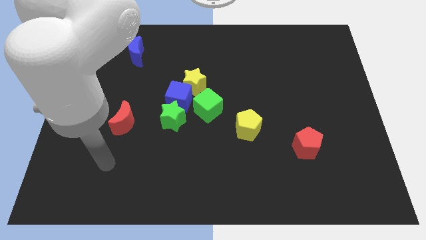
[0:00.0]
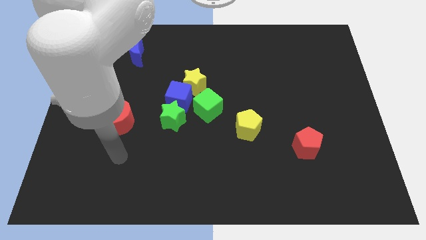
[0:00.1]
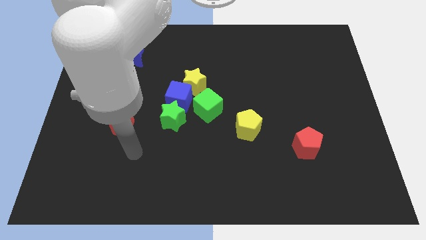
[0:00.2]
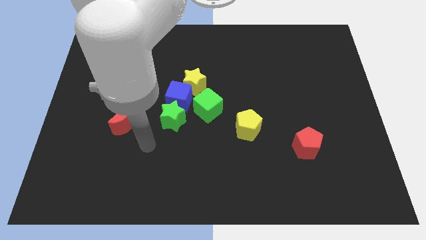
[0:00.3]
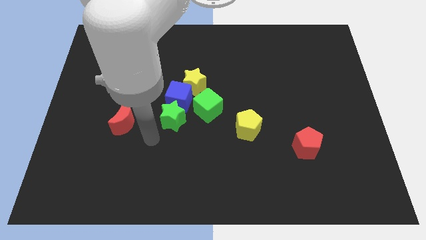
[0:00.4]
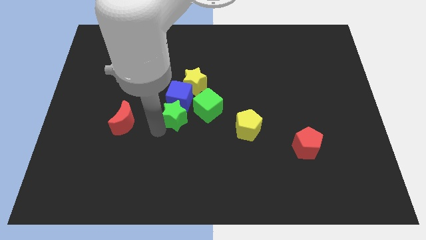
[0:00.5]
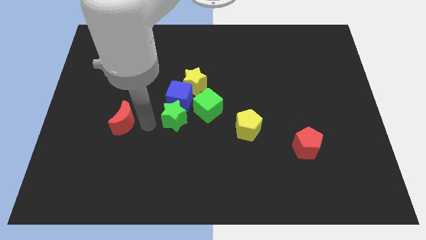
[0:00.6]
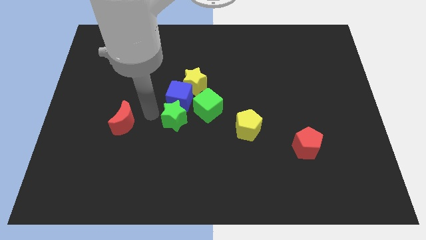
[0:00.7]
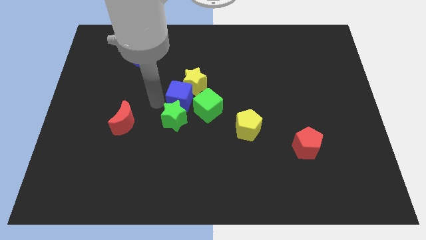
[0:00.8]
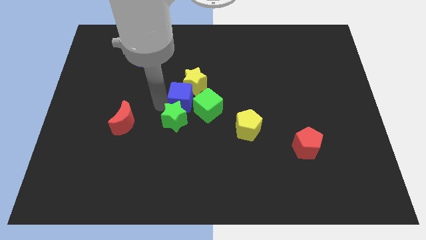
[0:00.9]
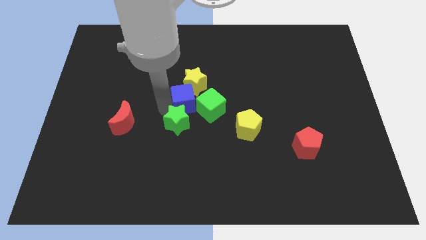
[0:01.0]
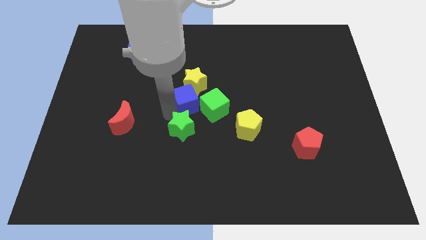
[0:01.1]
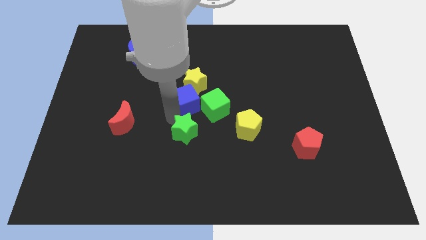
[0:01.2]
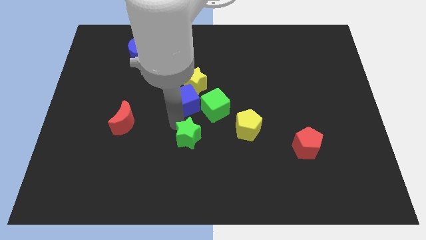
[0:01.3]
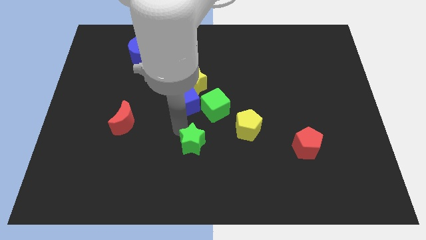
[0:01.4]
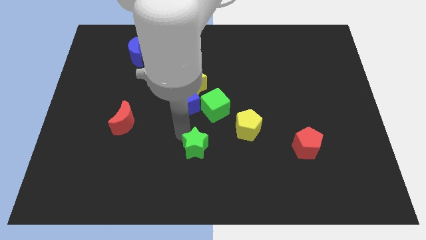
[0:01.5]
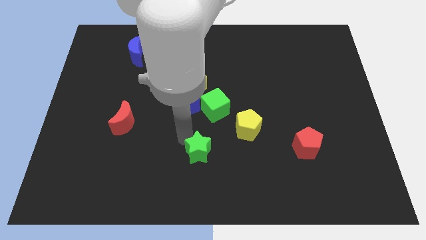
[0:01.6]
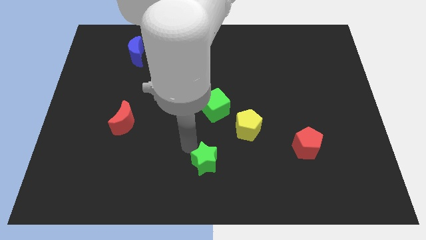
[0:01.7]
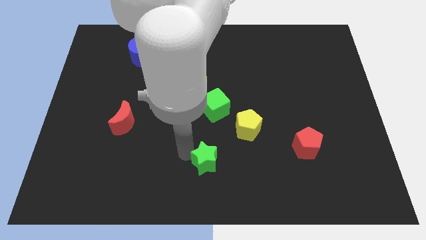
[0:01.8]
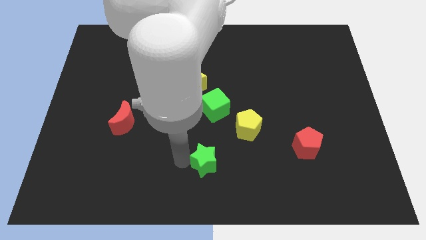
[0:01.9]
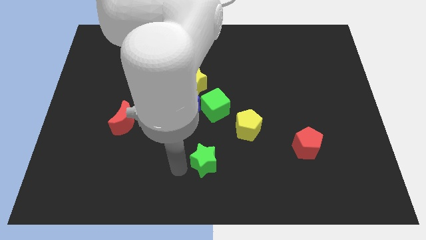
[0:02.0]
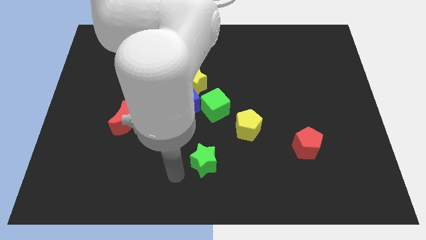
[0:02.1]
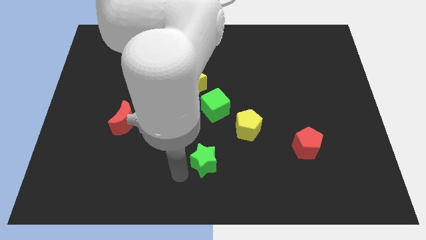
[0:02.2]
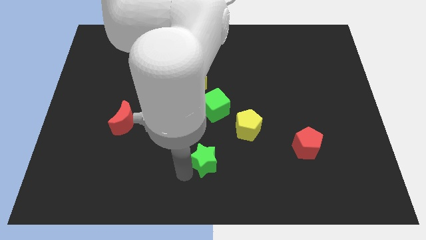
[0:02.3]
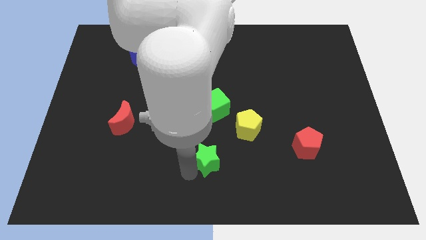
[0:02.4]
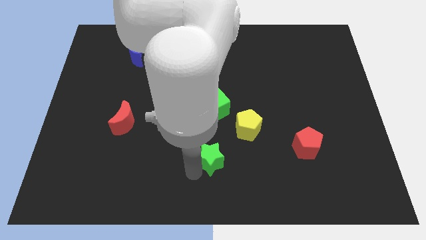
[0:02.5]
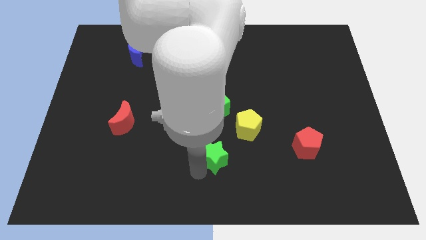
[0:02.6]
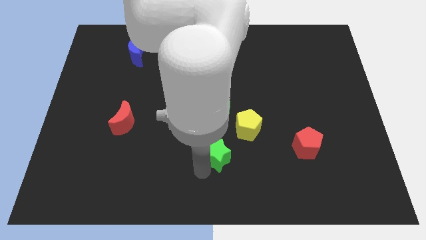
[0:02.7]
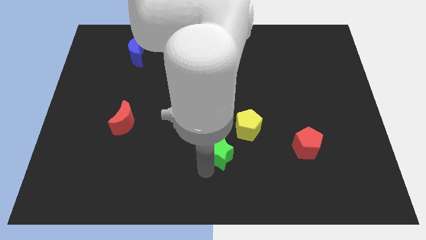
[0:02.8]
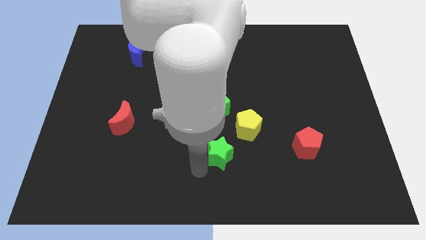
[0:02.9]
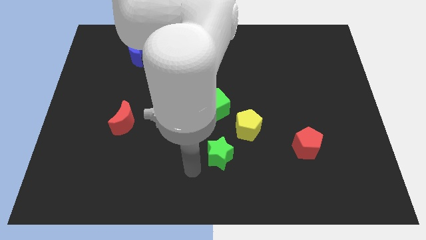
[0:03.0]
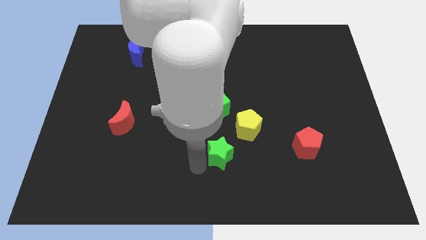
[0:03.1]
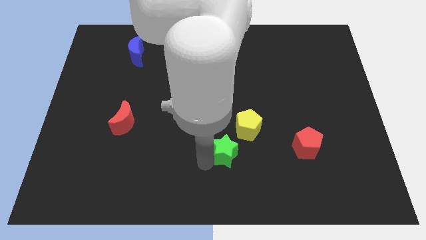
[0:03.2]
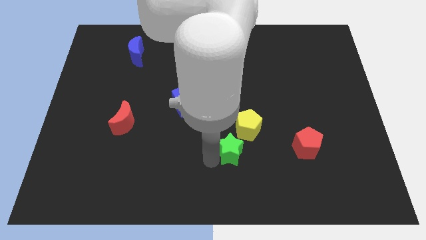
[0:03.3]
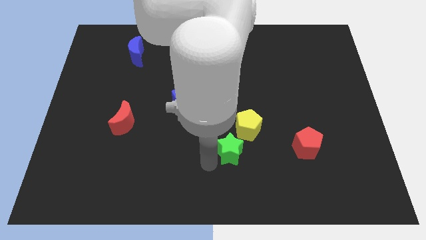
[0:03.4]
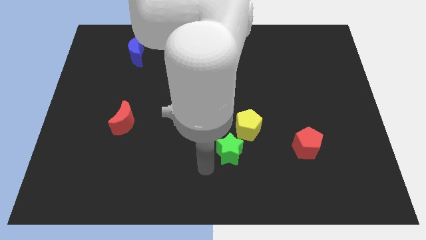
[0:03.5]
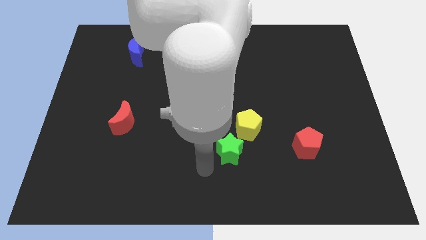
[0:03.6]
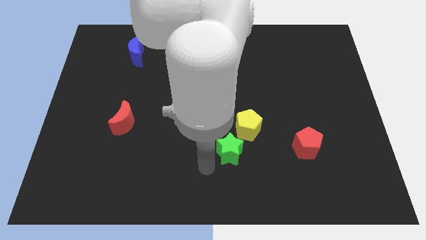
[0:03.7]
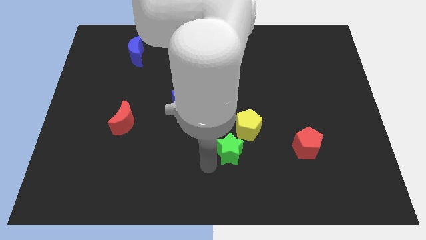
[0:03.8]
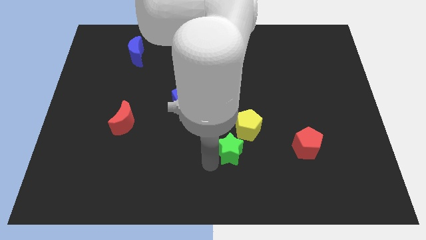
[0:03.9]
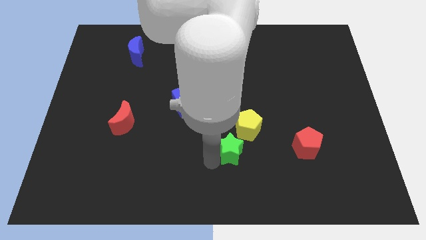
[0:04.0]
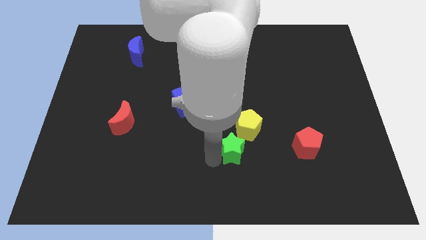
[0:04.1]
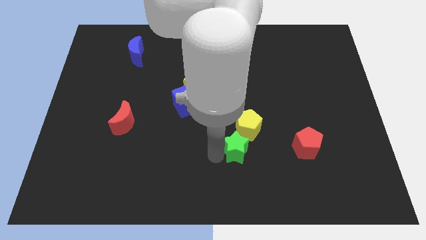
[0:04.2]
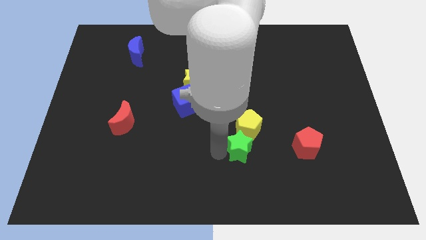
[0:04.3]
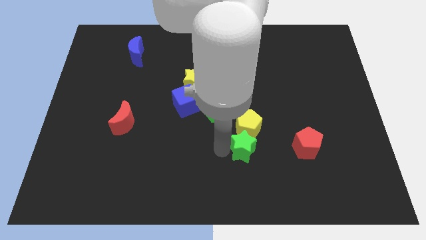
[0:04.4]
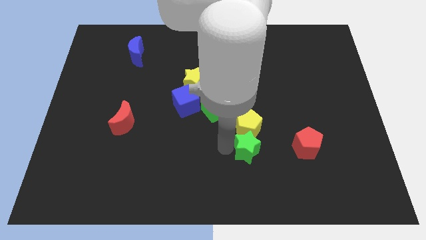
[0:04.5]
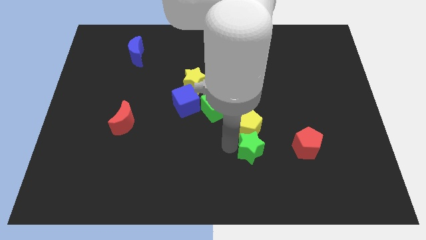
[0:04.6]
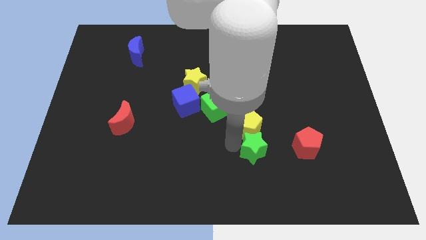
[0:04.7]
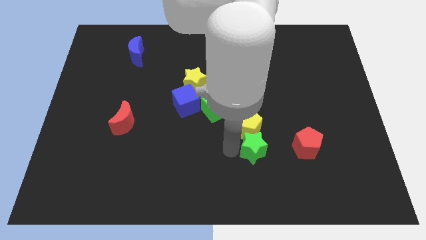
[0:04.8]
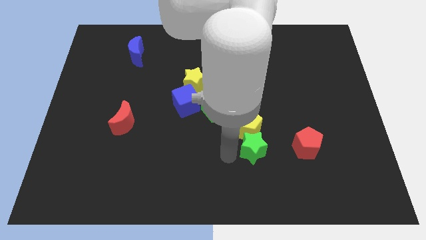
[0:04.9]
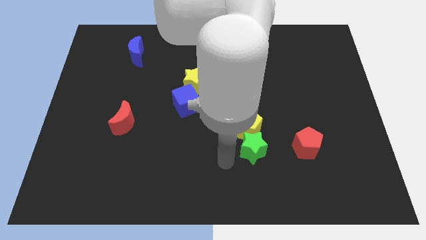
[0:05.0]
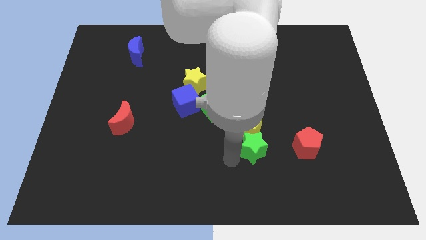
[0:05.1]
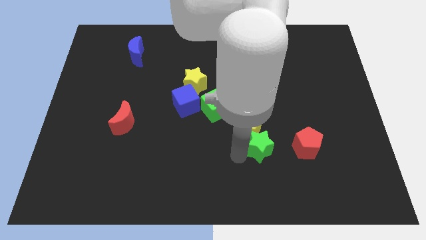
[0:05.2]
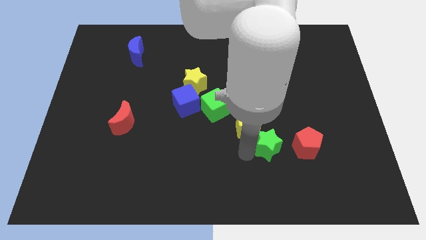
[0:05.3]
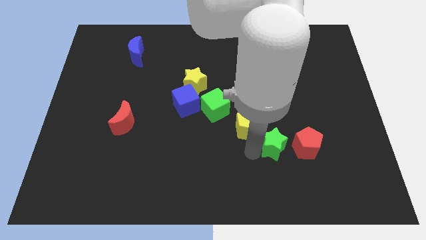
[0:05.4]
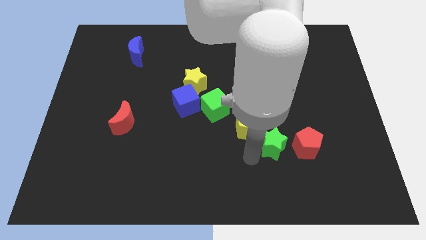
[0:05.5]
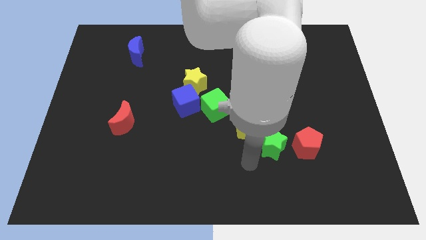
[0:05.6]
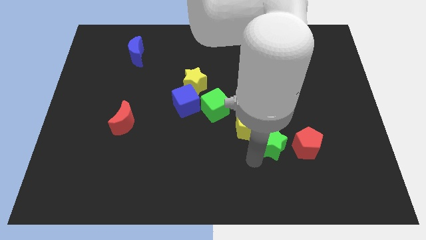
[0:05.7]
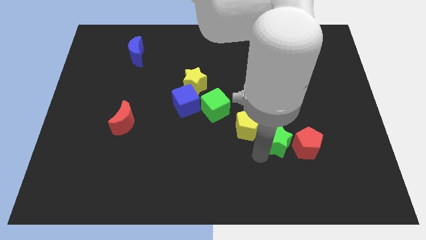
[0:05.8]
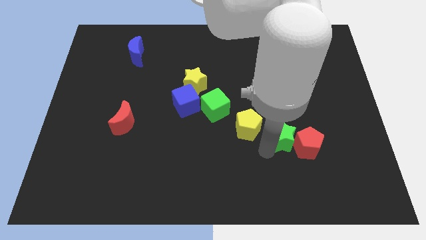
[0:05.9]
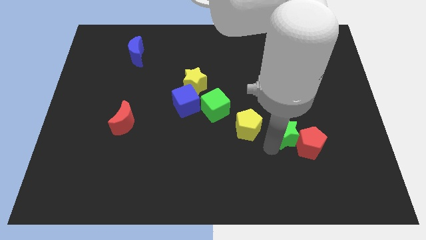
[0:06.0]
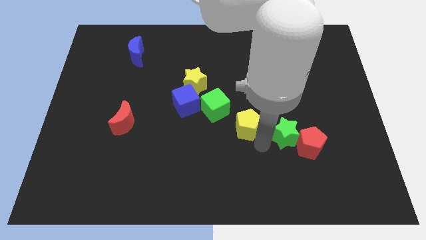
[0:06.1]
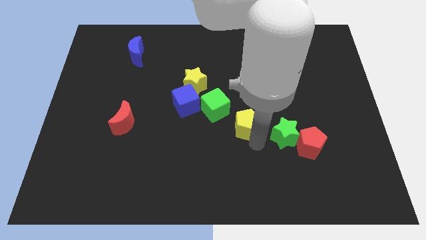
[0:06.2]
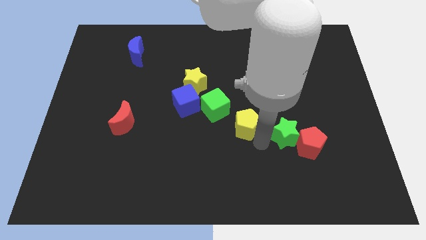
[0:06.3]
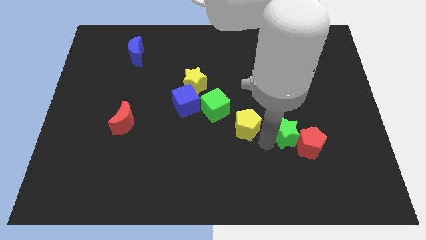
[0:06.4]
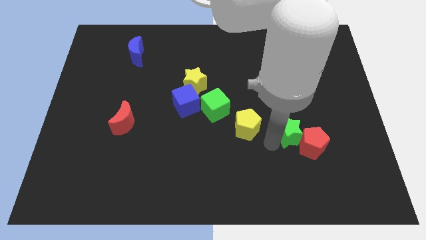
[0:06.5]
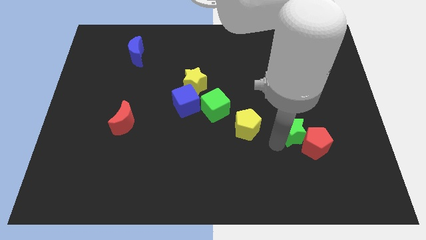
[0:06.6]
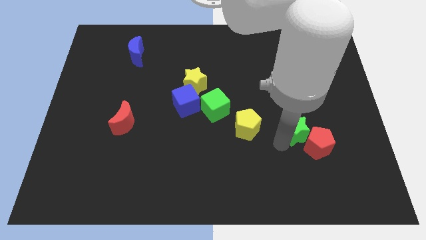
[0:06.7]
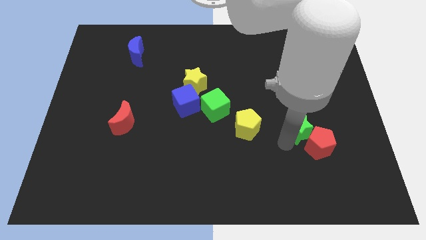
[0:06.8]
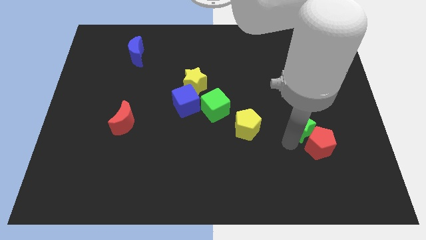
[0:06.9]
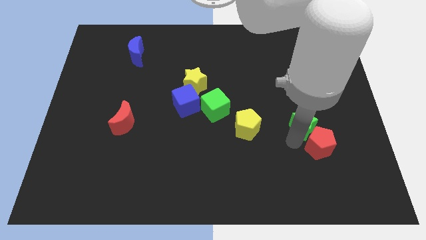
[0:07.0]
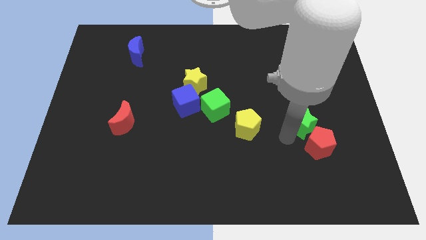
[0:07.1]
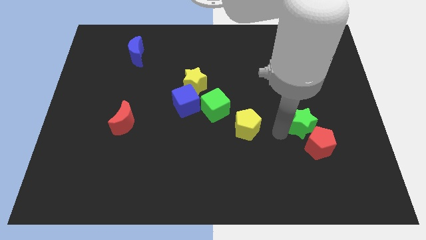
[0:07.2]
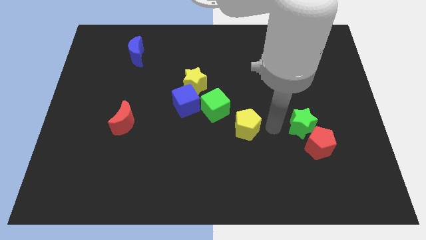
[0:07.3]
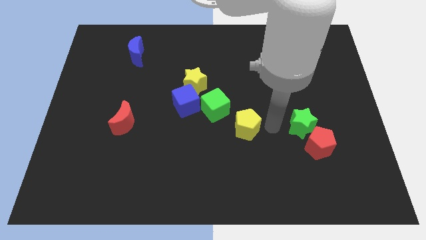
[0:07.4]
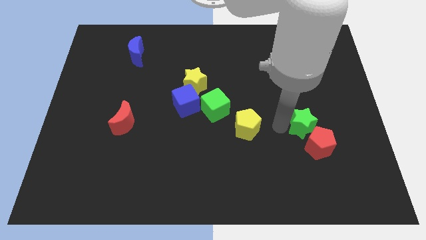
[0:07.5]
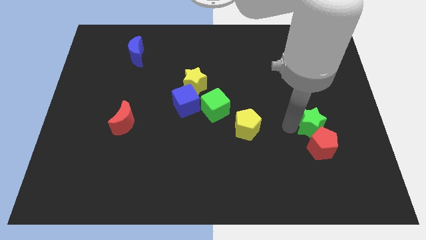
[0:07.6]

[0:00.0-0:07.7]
put the green star to the top right side of the red pentagon
